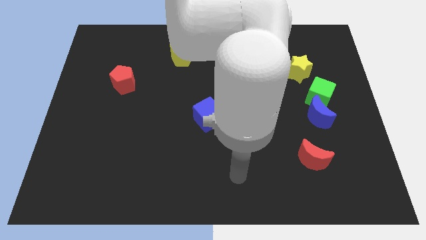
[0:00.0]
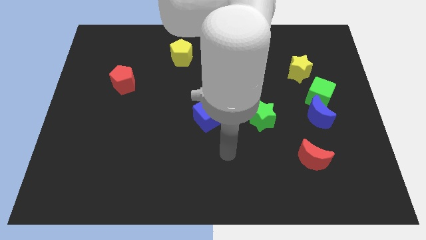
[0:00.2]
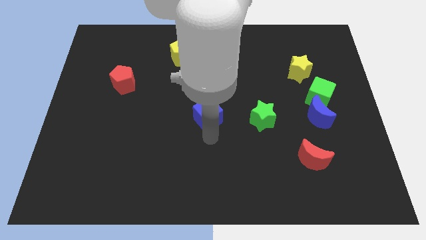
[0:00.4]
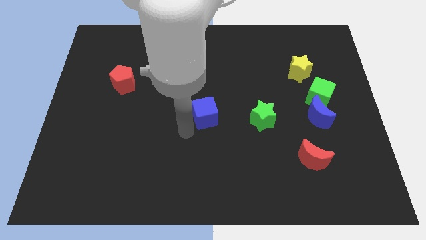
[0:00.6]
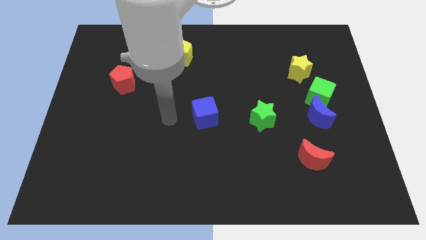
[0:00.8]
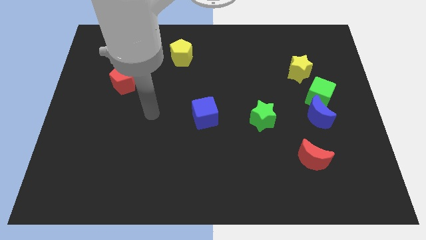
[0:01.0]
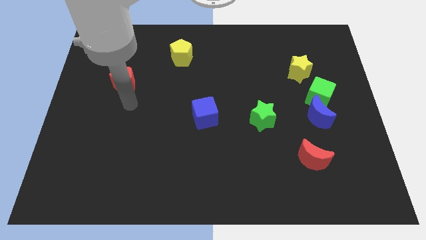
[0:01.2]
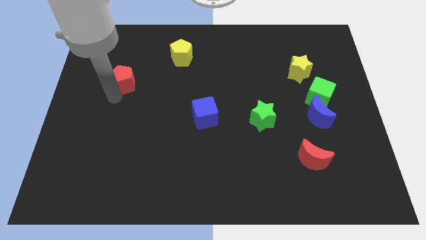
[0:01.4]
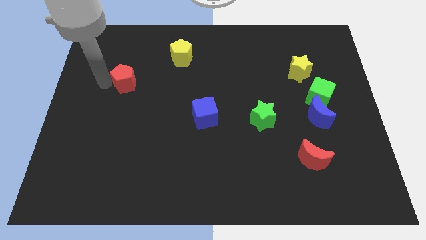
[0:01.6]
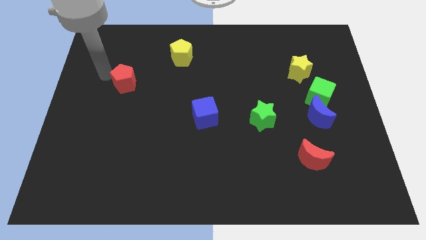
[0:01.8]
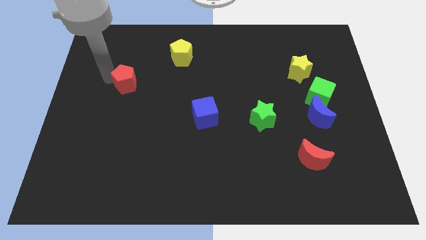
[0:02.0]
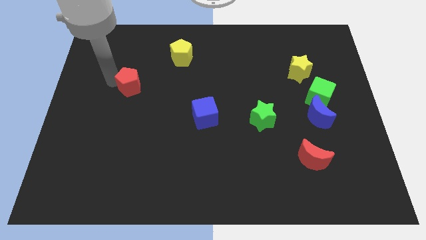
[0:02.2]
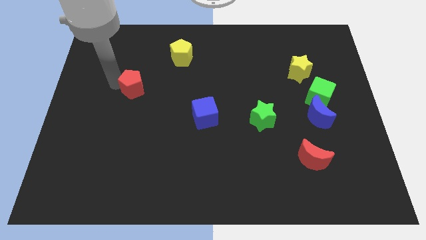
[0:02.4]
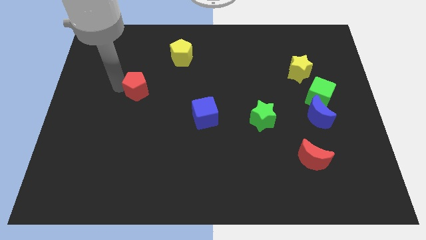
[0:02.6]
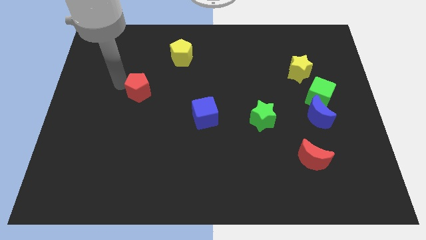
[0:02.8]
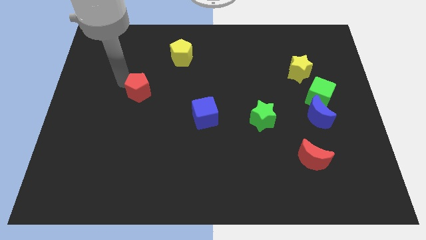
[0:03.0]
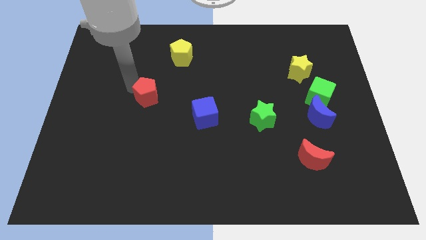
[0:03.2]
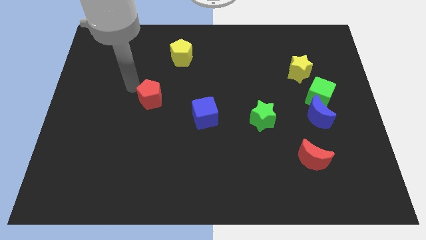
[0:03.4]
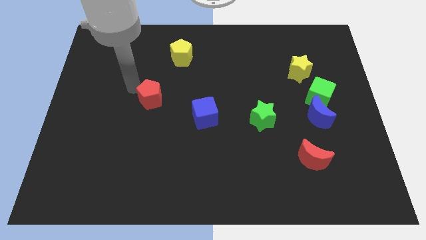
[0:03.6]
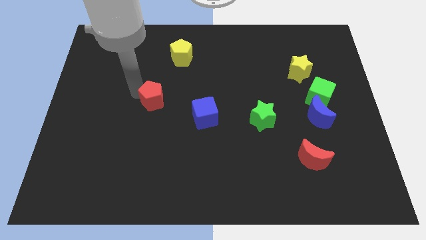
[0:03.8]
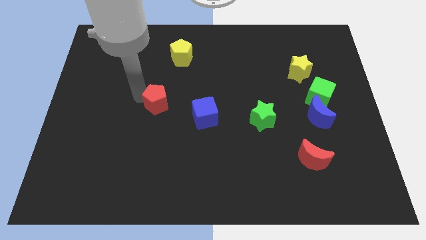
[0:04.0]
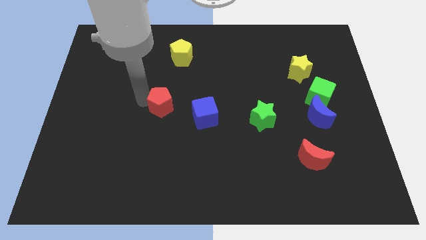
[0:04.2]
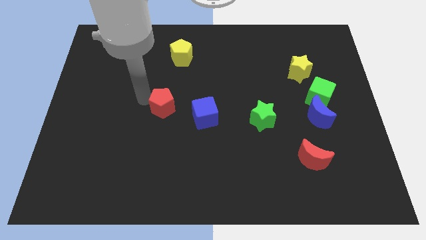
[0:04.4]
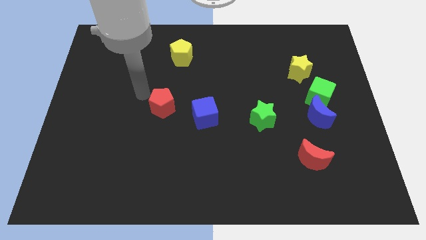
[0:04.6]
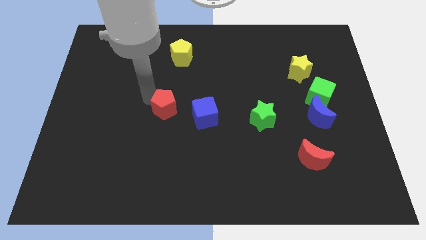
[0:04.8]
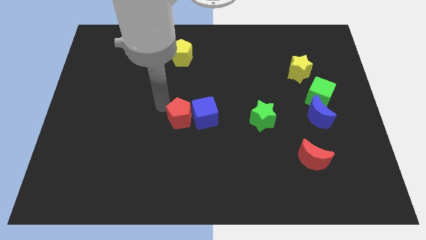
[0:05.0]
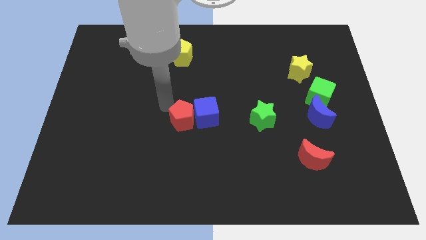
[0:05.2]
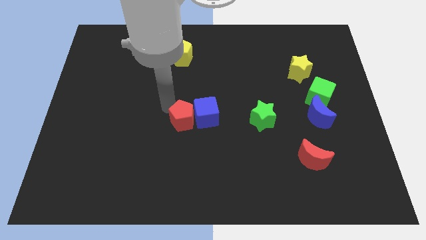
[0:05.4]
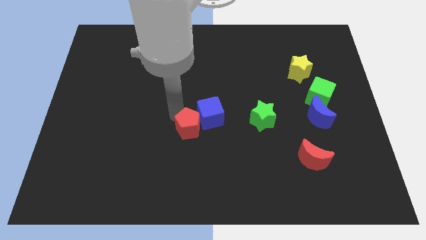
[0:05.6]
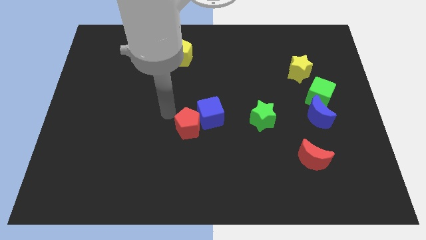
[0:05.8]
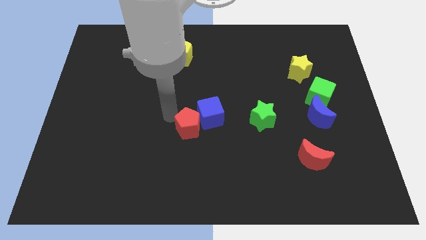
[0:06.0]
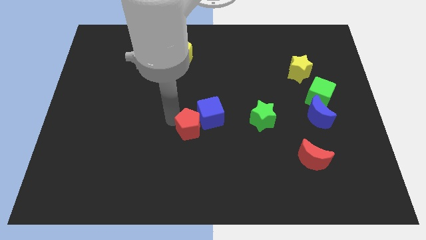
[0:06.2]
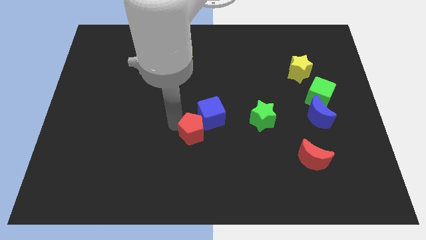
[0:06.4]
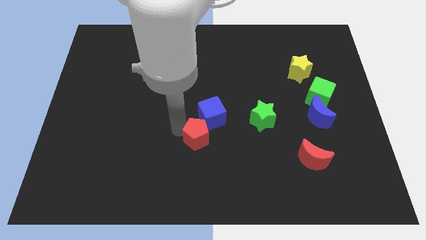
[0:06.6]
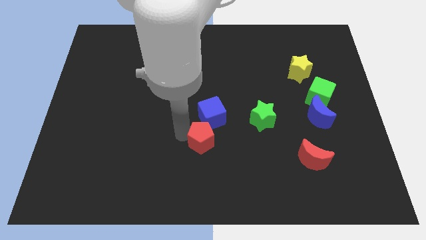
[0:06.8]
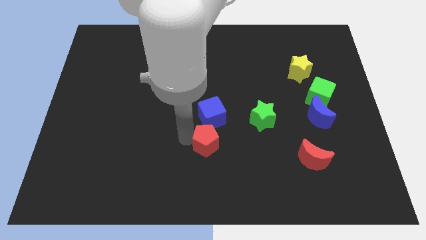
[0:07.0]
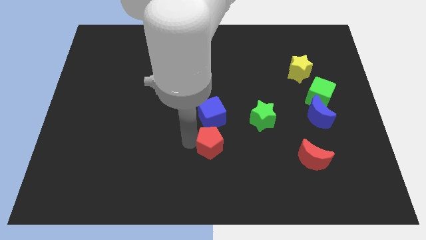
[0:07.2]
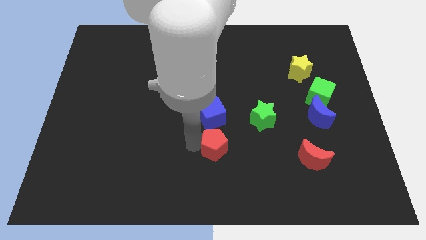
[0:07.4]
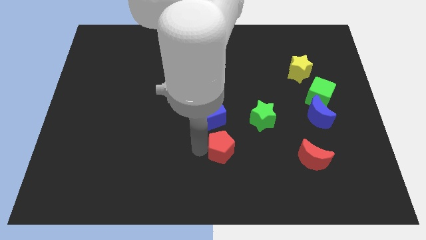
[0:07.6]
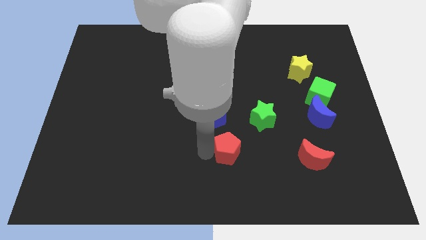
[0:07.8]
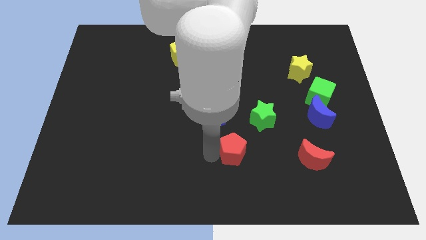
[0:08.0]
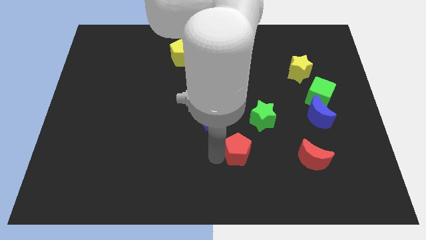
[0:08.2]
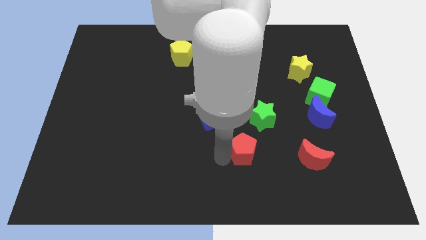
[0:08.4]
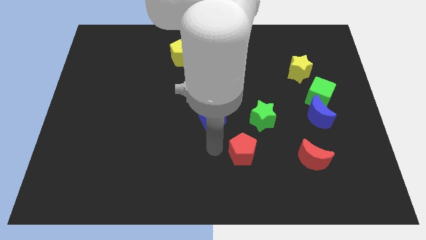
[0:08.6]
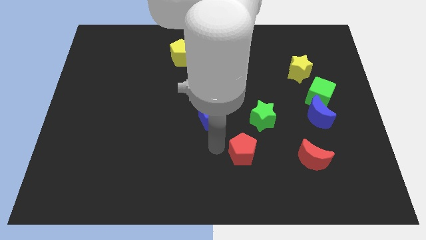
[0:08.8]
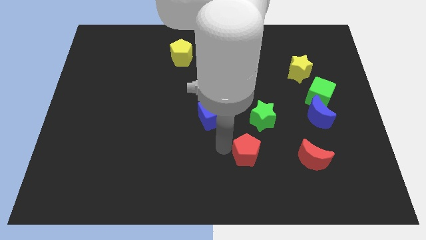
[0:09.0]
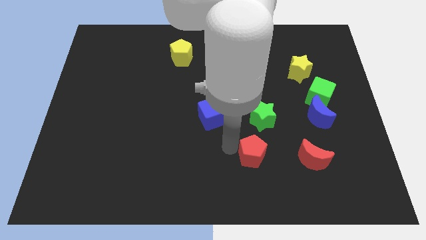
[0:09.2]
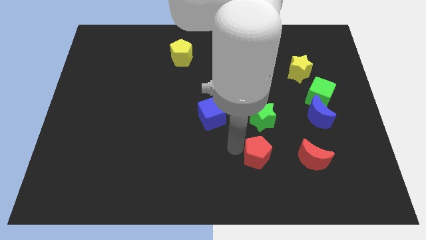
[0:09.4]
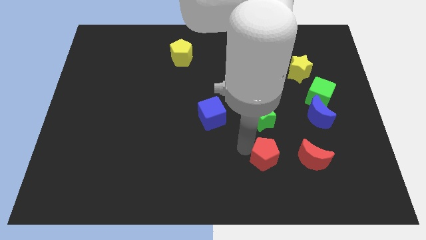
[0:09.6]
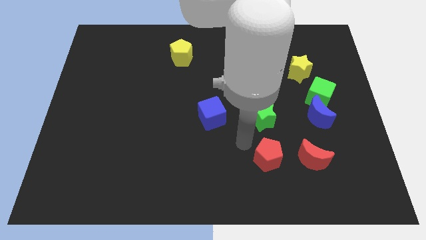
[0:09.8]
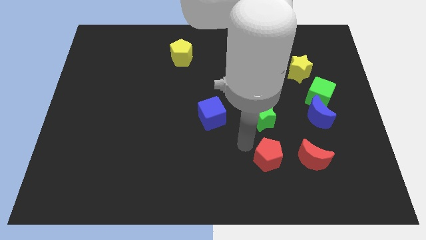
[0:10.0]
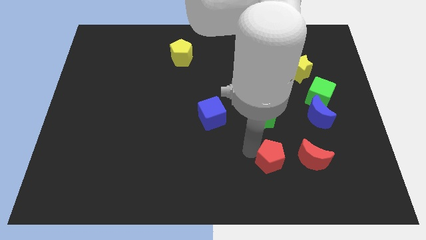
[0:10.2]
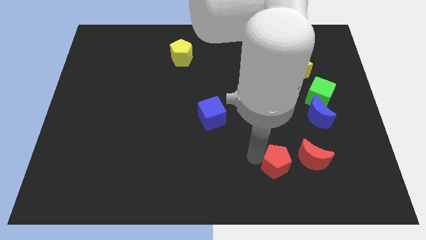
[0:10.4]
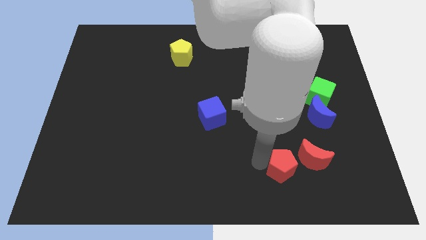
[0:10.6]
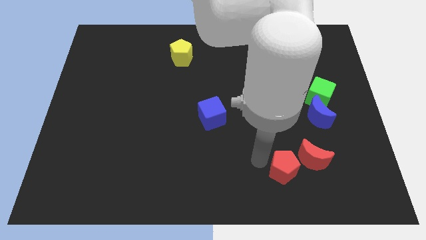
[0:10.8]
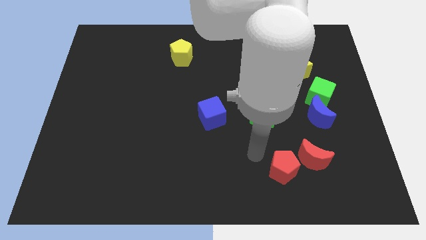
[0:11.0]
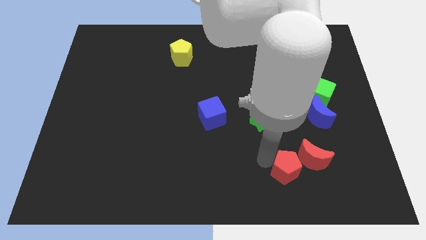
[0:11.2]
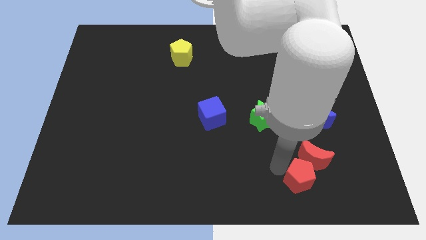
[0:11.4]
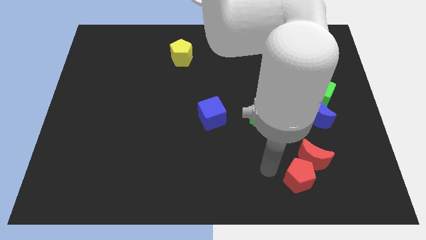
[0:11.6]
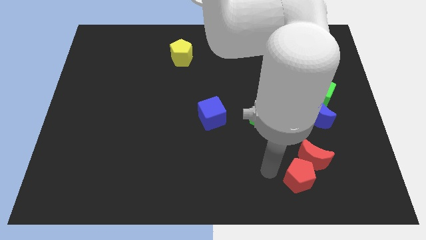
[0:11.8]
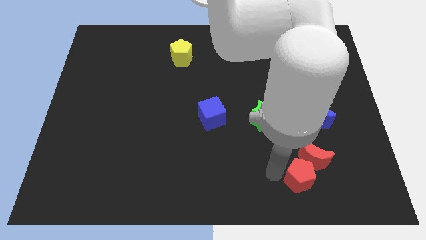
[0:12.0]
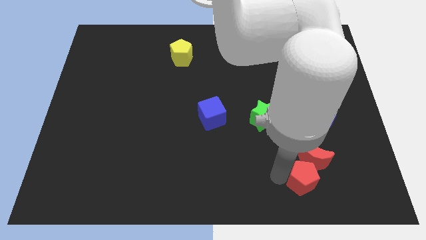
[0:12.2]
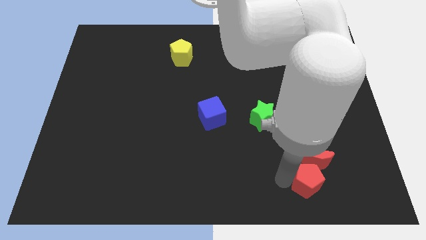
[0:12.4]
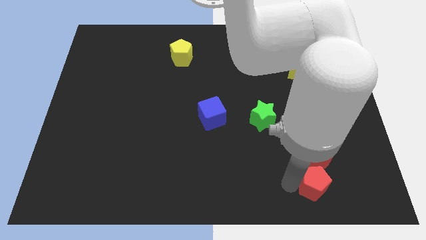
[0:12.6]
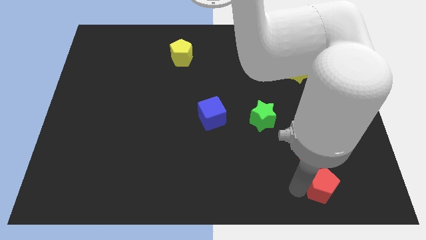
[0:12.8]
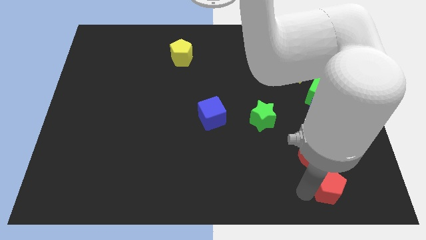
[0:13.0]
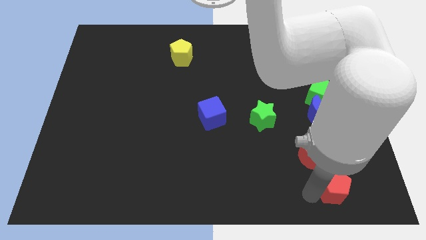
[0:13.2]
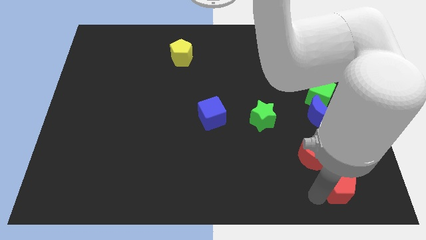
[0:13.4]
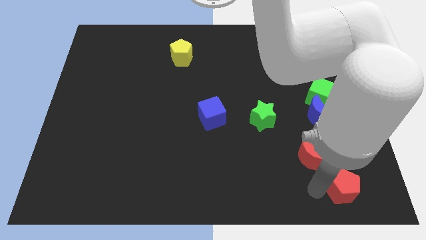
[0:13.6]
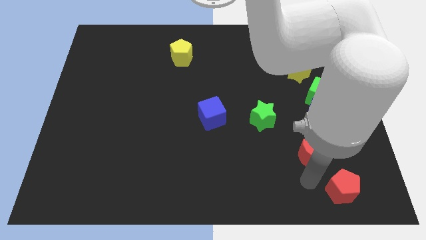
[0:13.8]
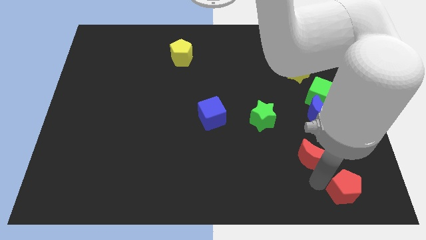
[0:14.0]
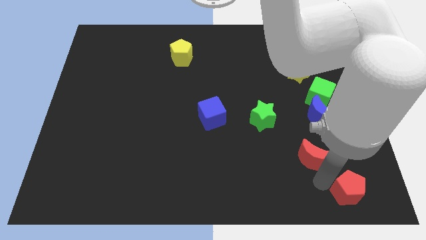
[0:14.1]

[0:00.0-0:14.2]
move the red pentagon to the bottom right
